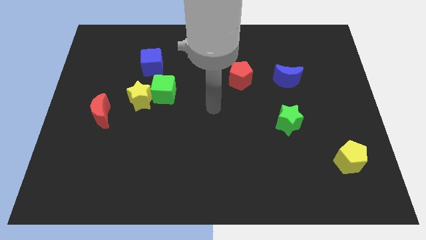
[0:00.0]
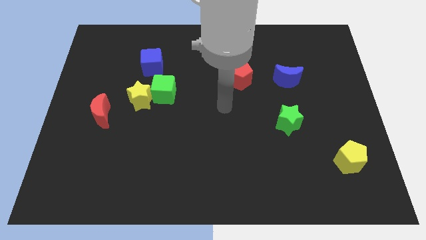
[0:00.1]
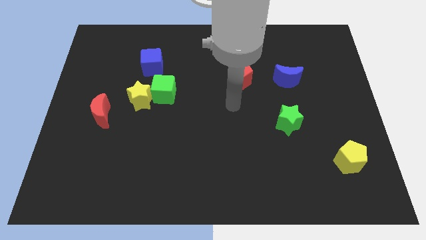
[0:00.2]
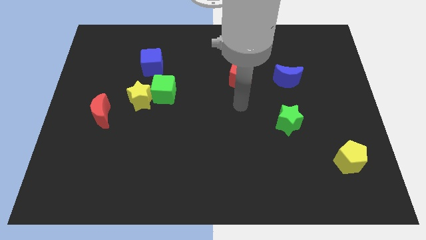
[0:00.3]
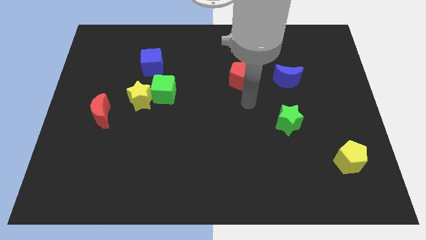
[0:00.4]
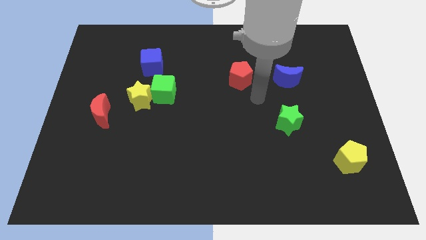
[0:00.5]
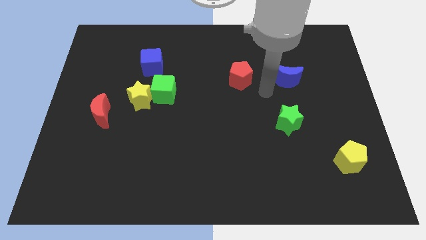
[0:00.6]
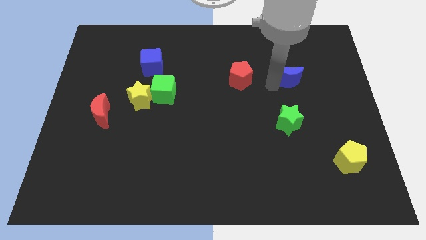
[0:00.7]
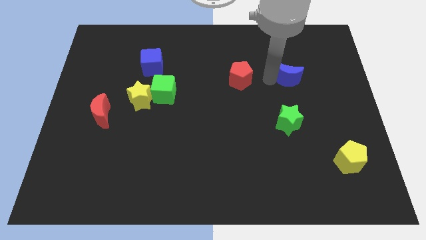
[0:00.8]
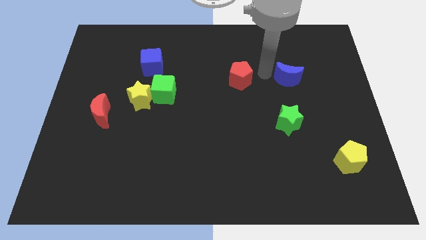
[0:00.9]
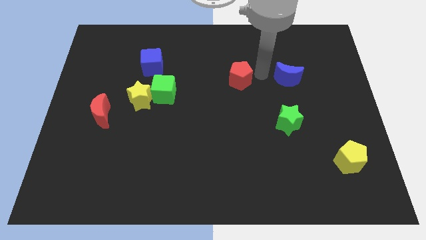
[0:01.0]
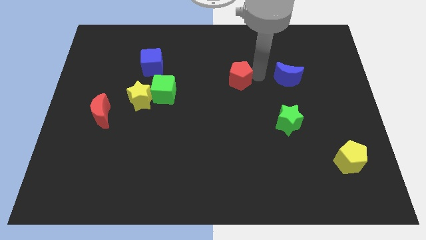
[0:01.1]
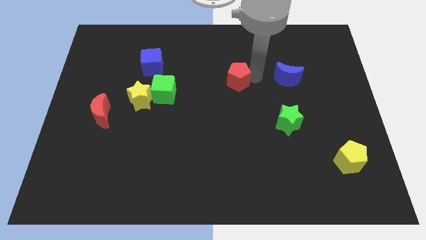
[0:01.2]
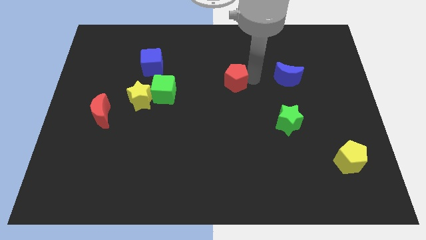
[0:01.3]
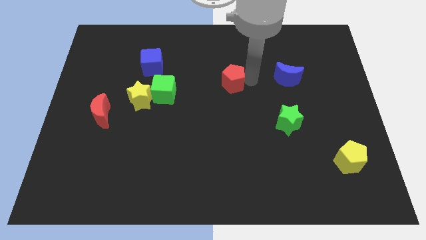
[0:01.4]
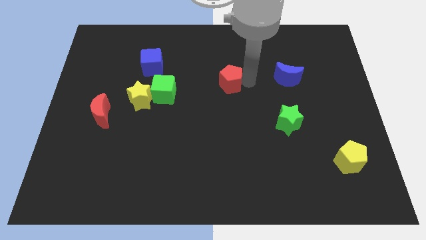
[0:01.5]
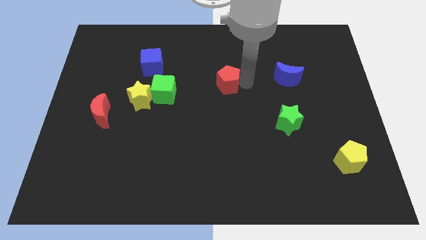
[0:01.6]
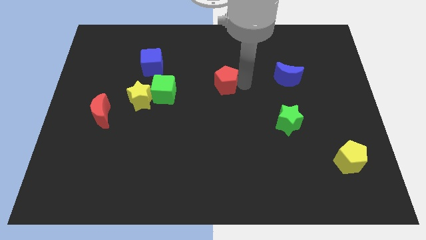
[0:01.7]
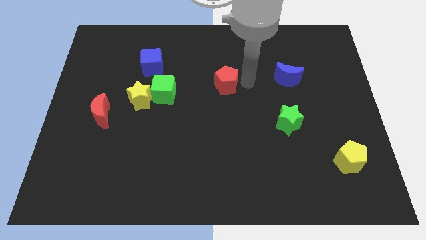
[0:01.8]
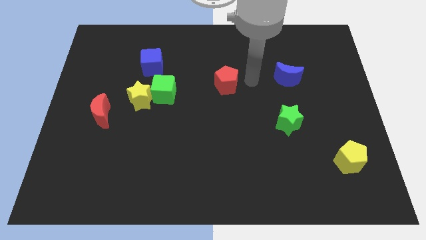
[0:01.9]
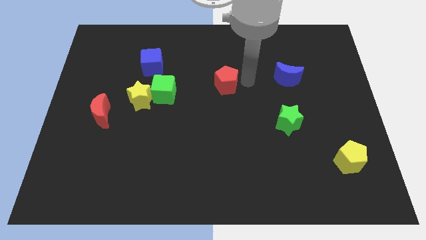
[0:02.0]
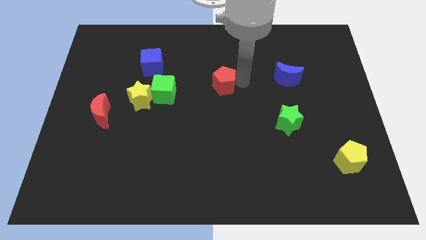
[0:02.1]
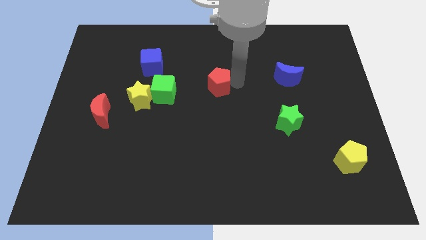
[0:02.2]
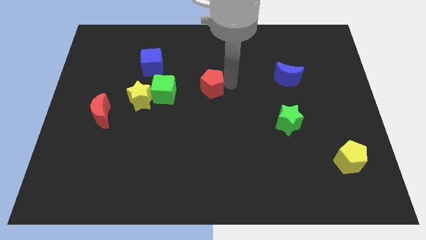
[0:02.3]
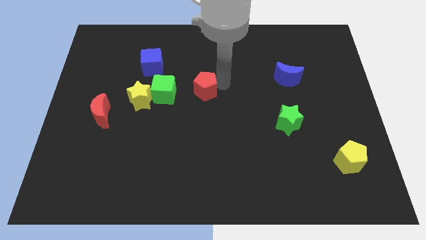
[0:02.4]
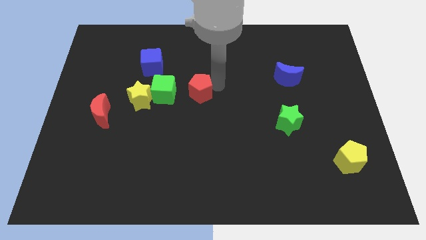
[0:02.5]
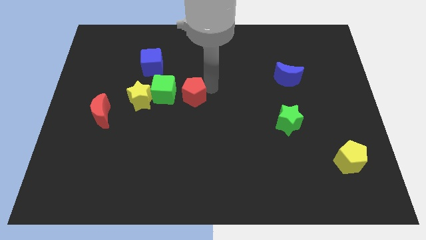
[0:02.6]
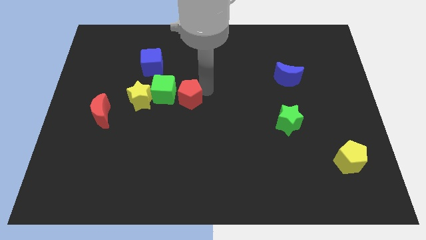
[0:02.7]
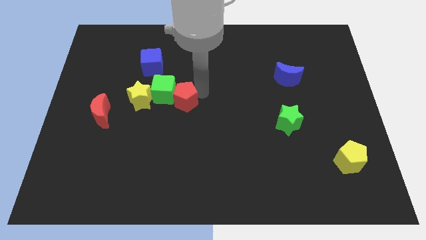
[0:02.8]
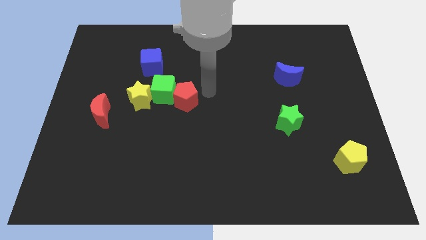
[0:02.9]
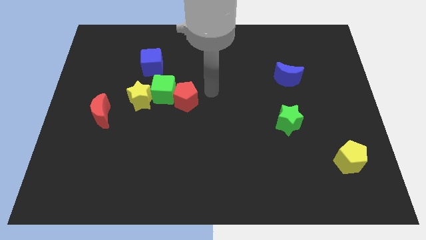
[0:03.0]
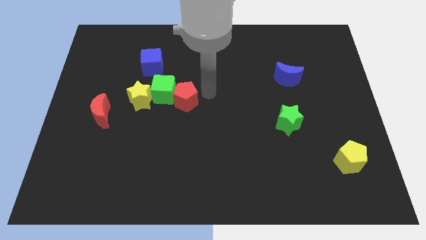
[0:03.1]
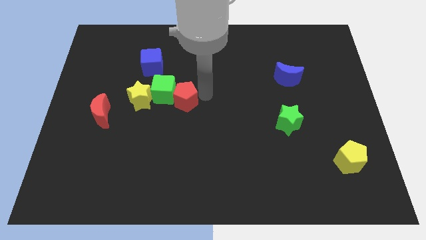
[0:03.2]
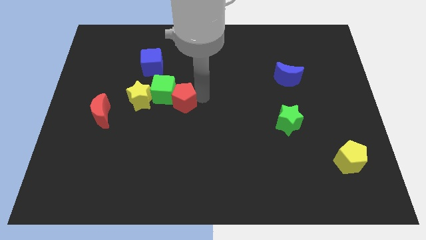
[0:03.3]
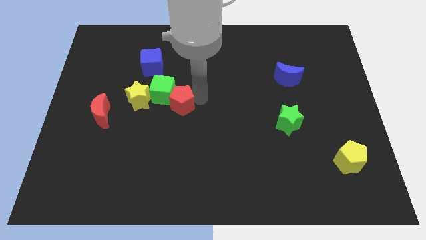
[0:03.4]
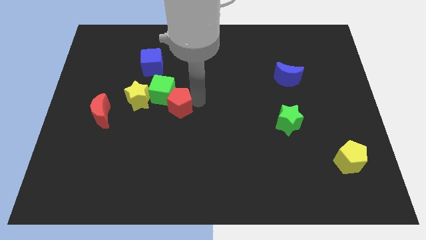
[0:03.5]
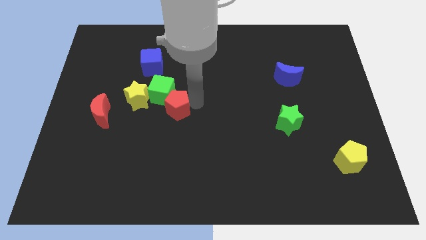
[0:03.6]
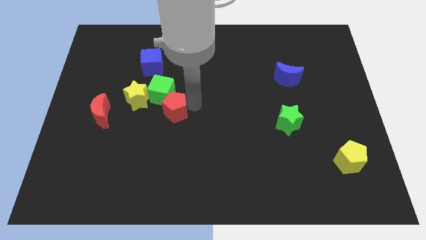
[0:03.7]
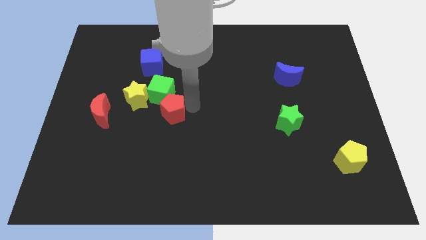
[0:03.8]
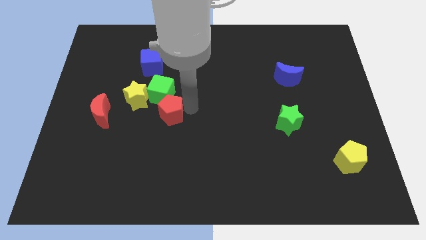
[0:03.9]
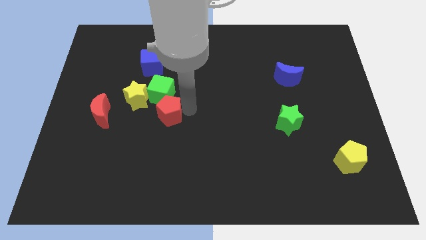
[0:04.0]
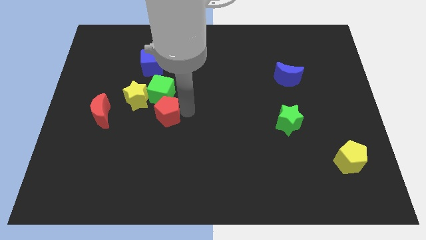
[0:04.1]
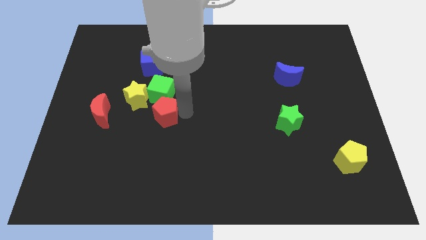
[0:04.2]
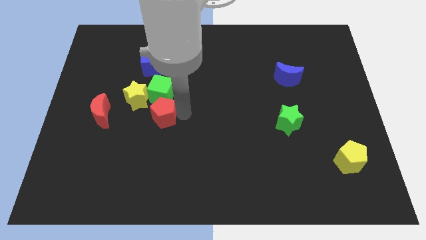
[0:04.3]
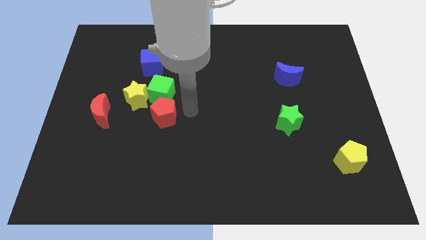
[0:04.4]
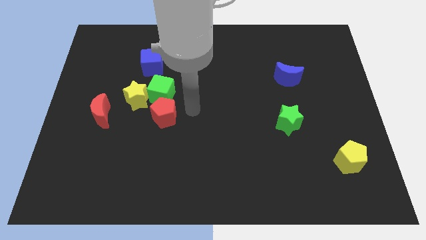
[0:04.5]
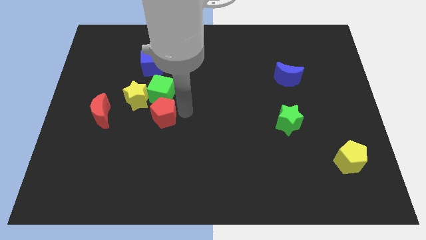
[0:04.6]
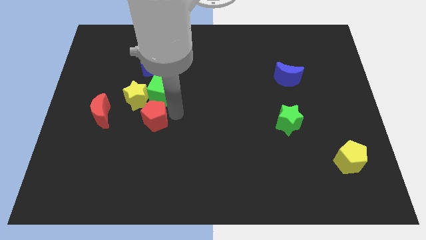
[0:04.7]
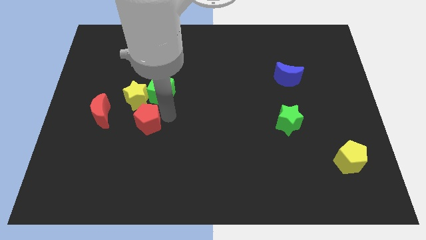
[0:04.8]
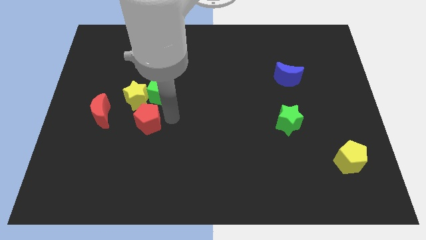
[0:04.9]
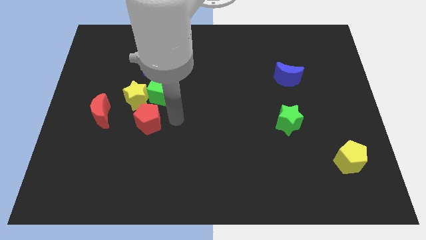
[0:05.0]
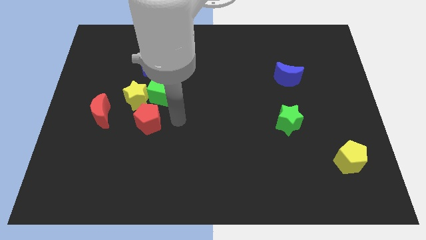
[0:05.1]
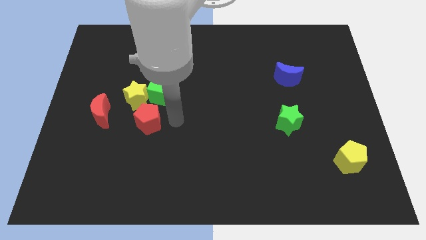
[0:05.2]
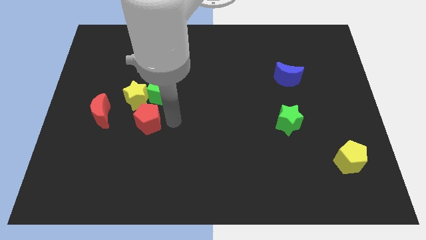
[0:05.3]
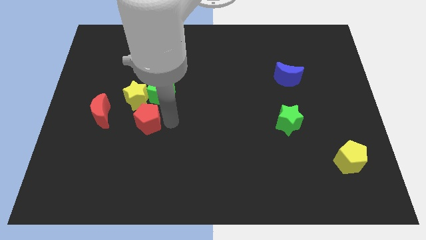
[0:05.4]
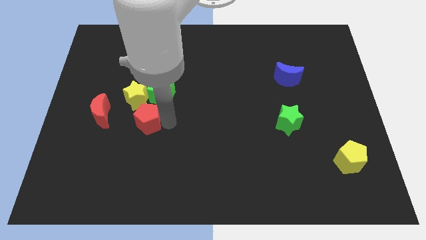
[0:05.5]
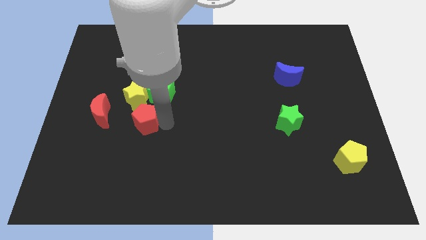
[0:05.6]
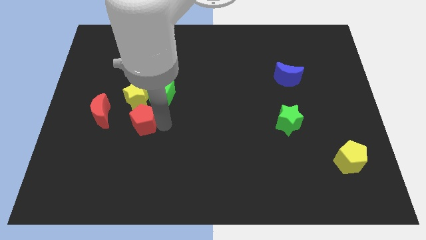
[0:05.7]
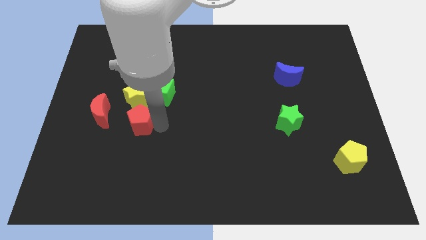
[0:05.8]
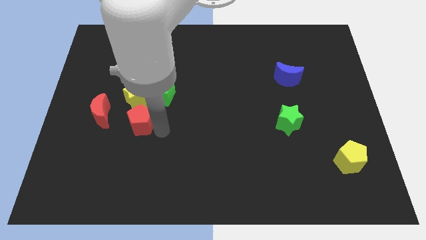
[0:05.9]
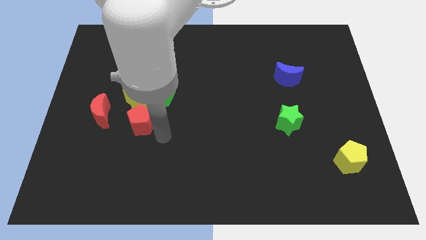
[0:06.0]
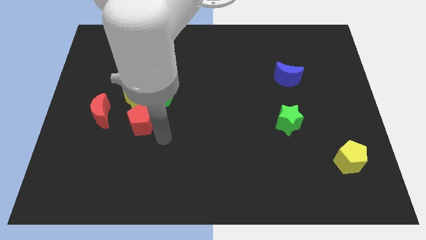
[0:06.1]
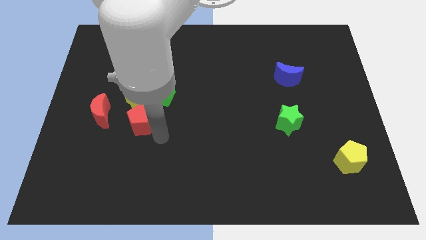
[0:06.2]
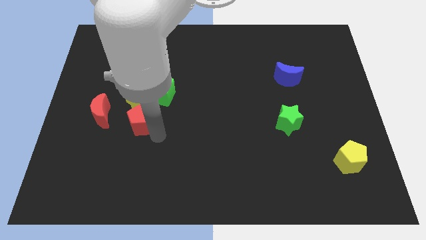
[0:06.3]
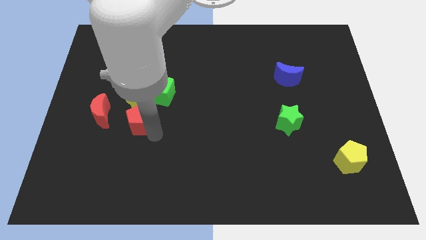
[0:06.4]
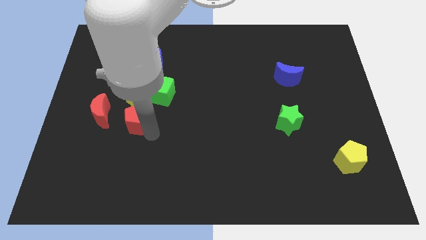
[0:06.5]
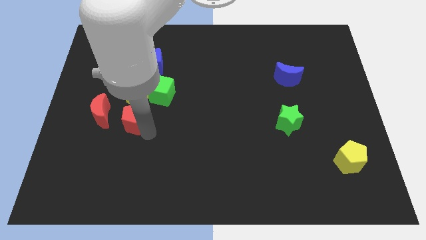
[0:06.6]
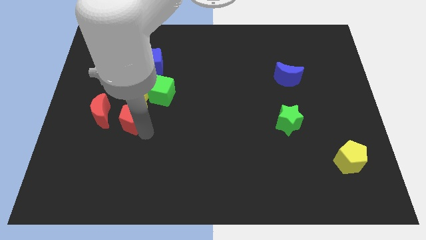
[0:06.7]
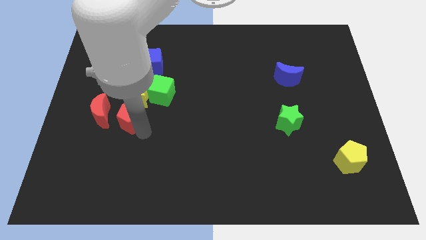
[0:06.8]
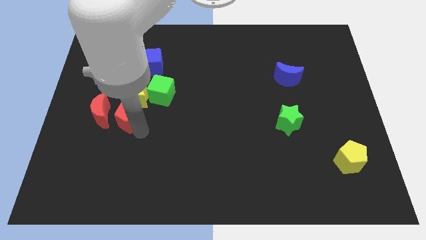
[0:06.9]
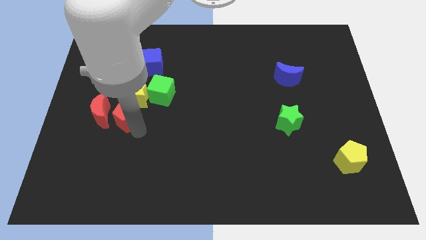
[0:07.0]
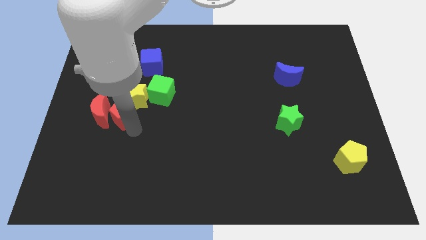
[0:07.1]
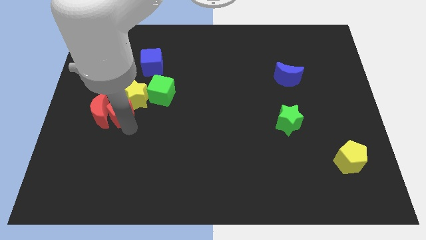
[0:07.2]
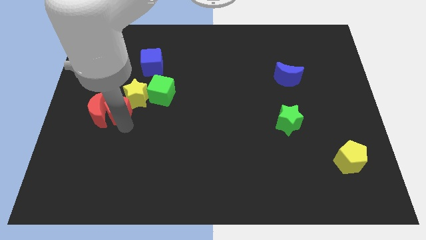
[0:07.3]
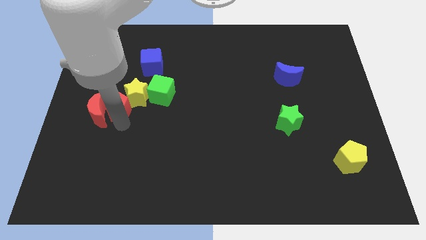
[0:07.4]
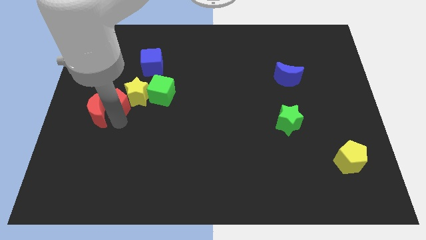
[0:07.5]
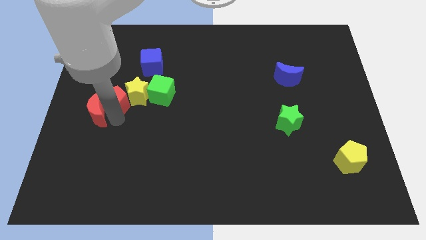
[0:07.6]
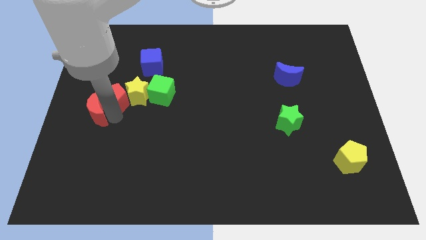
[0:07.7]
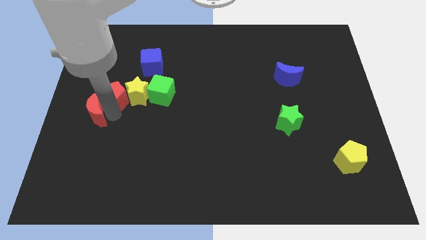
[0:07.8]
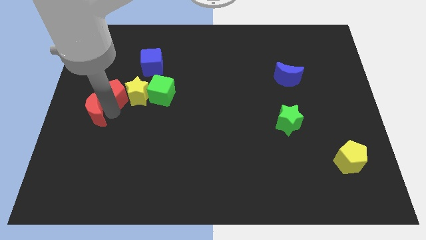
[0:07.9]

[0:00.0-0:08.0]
slide the red pentagon diagonally up and to the left of the yellow star
